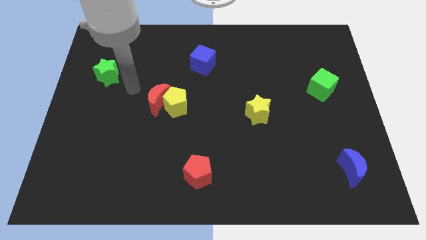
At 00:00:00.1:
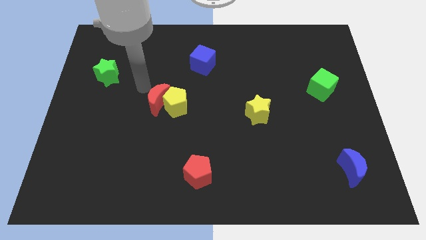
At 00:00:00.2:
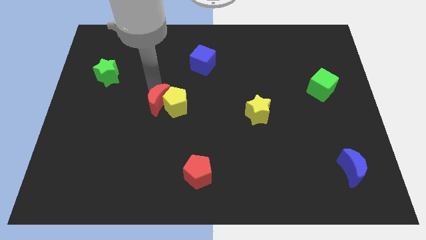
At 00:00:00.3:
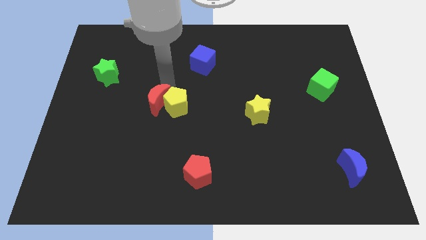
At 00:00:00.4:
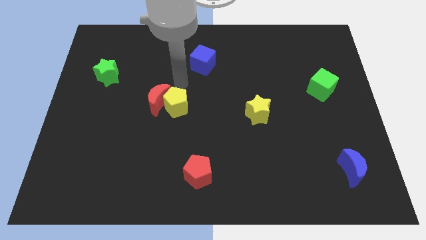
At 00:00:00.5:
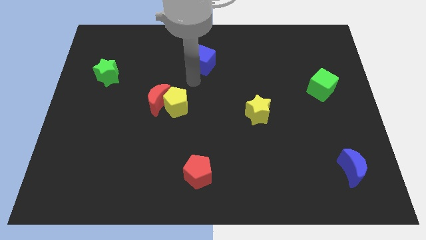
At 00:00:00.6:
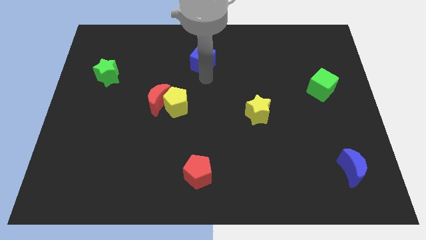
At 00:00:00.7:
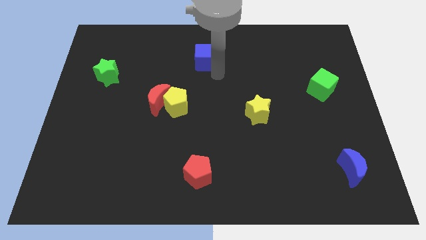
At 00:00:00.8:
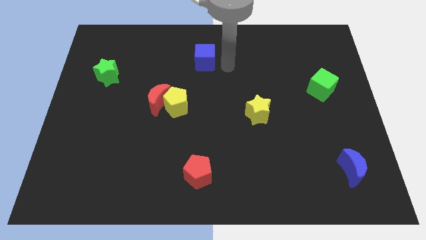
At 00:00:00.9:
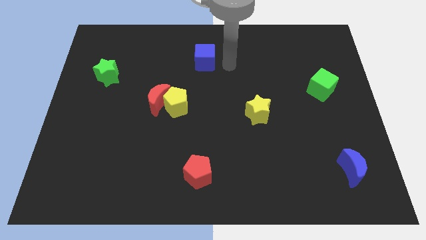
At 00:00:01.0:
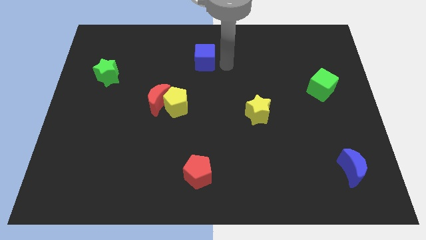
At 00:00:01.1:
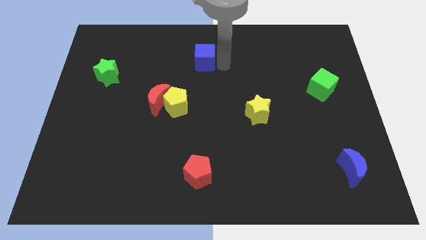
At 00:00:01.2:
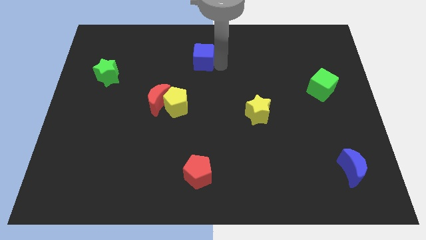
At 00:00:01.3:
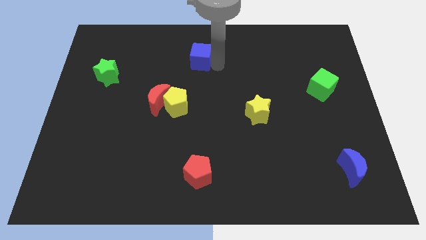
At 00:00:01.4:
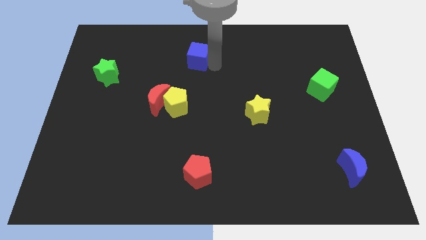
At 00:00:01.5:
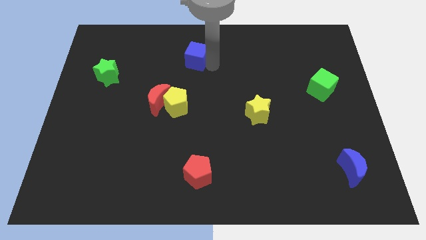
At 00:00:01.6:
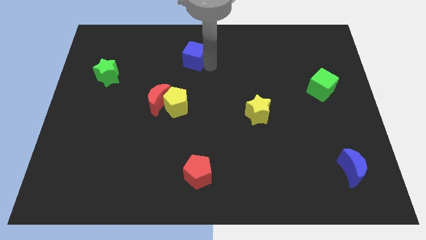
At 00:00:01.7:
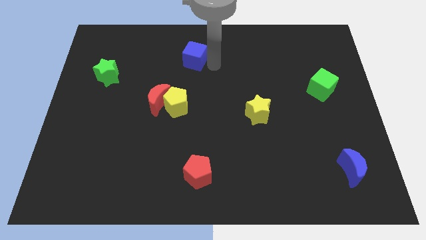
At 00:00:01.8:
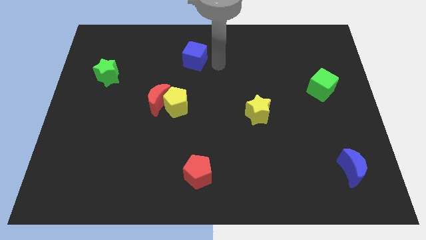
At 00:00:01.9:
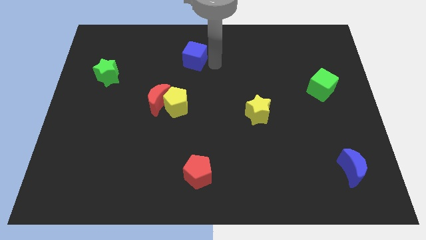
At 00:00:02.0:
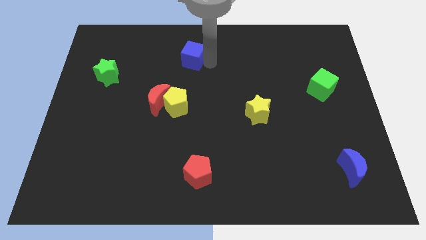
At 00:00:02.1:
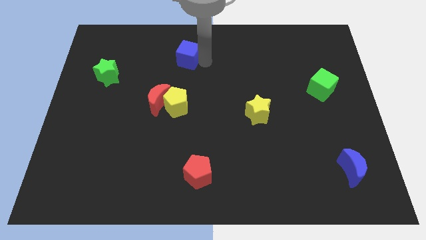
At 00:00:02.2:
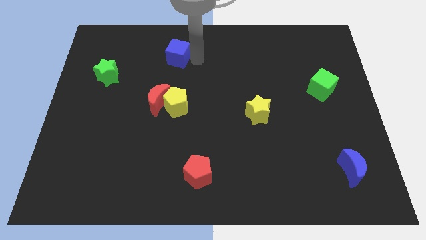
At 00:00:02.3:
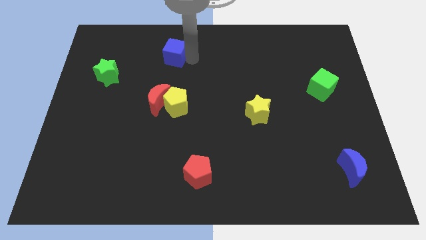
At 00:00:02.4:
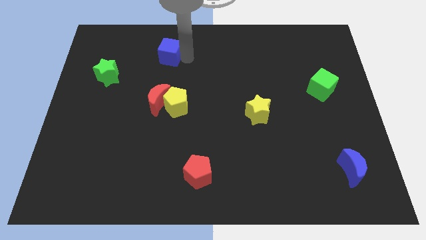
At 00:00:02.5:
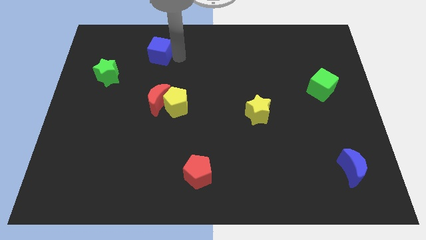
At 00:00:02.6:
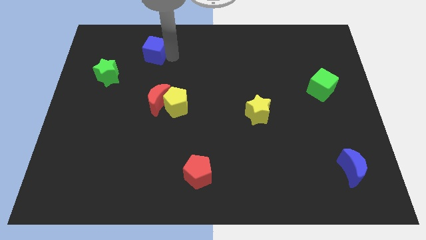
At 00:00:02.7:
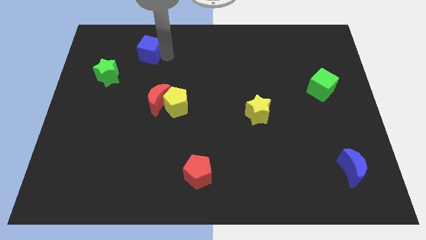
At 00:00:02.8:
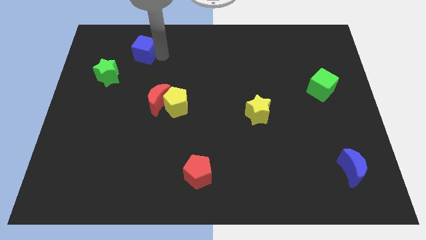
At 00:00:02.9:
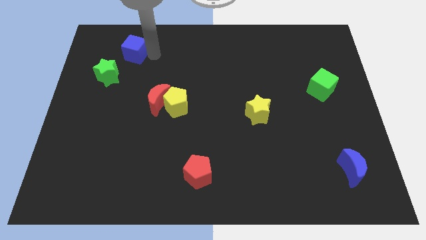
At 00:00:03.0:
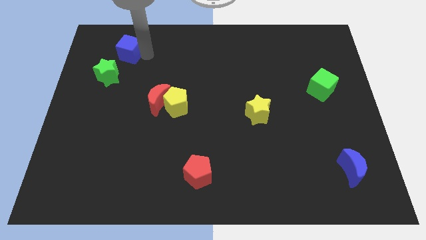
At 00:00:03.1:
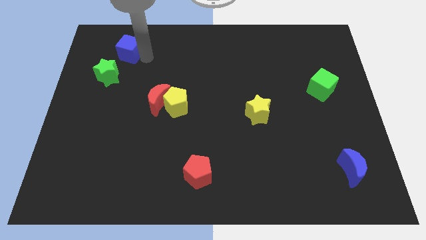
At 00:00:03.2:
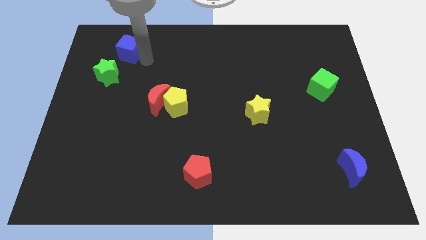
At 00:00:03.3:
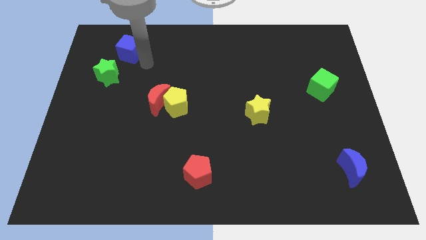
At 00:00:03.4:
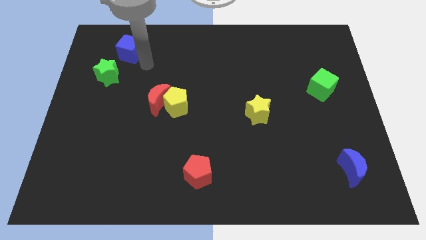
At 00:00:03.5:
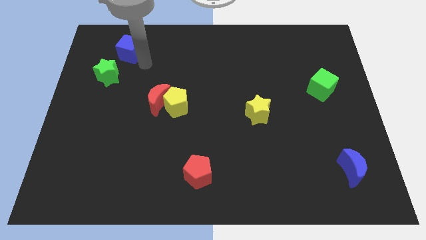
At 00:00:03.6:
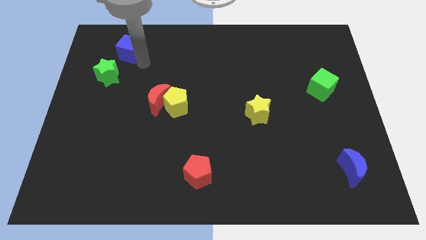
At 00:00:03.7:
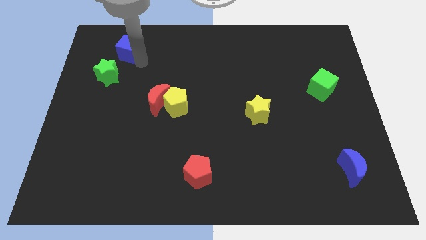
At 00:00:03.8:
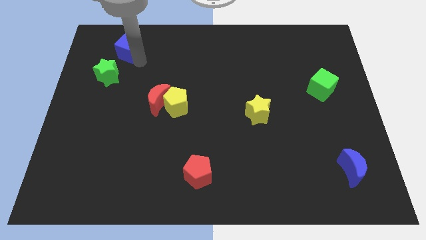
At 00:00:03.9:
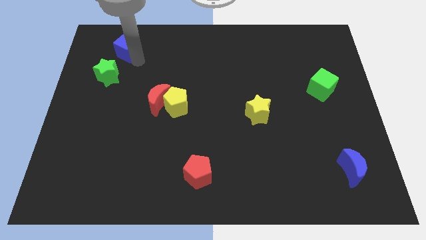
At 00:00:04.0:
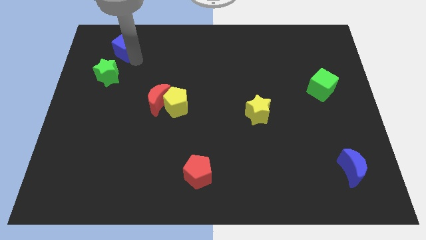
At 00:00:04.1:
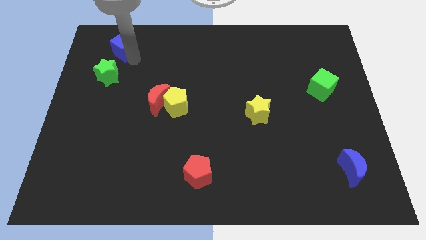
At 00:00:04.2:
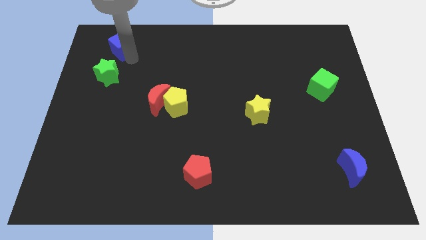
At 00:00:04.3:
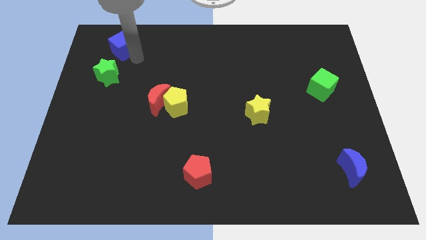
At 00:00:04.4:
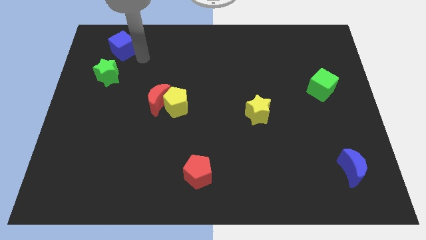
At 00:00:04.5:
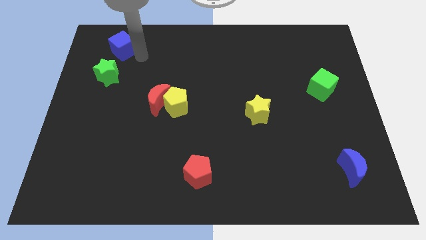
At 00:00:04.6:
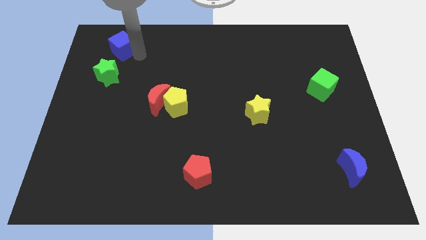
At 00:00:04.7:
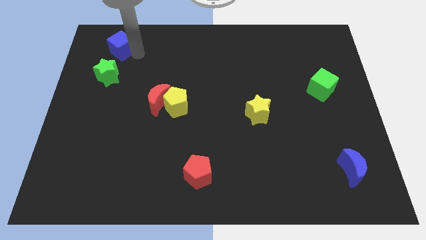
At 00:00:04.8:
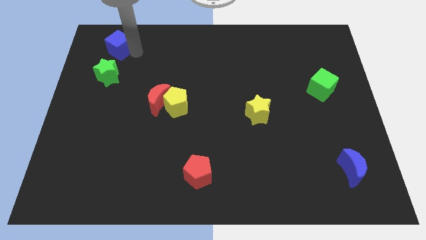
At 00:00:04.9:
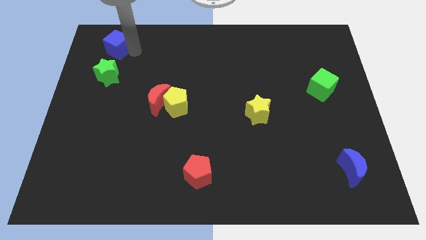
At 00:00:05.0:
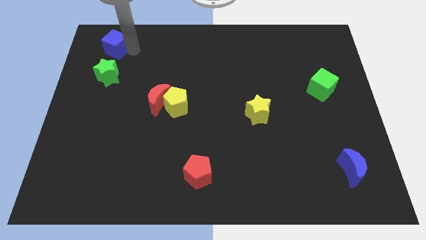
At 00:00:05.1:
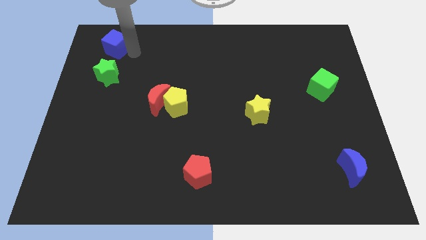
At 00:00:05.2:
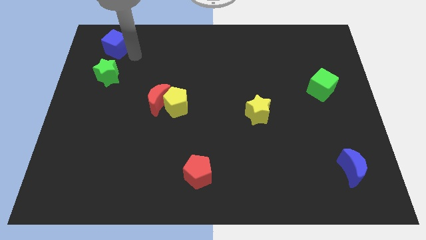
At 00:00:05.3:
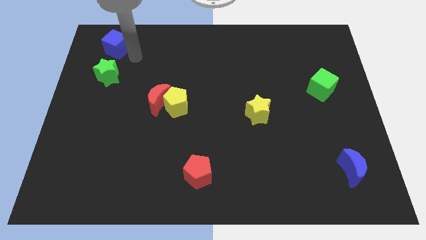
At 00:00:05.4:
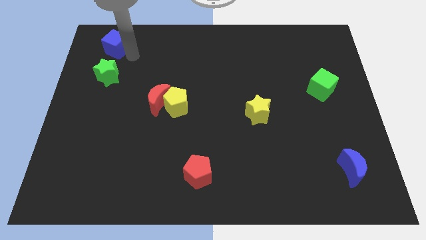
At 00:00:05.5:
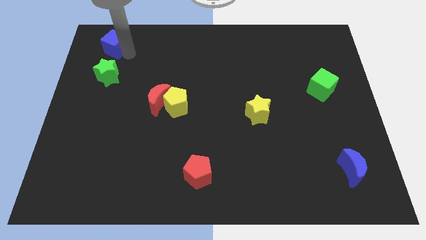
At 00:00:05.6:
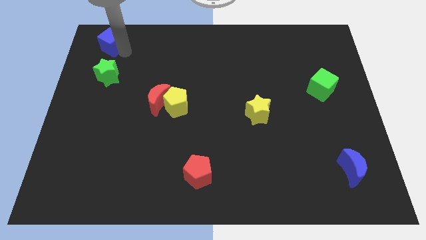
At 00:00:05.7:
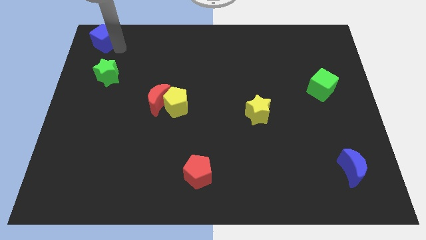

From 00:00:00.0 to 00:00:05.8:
move the blue cube to the upper left corner
